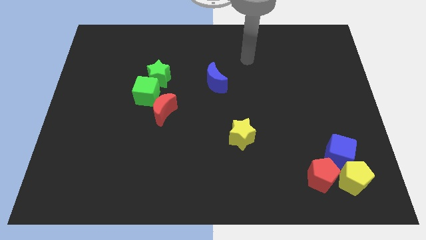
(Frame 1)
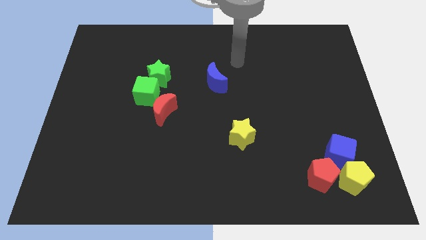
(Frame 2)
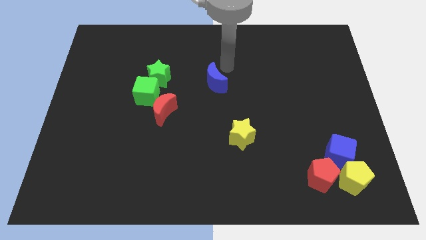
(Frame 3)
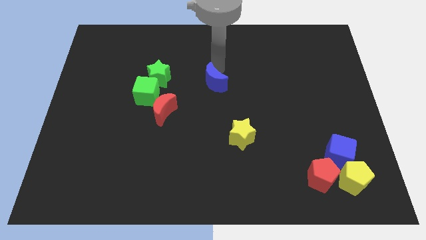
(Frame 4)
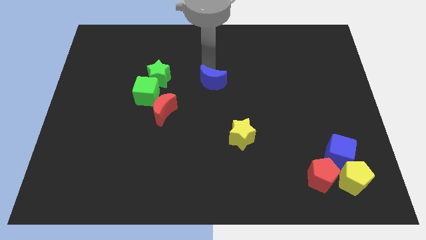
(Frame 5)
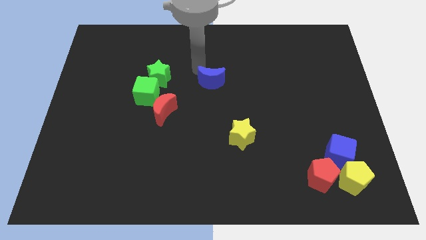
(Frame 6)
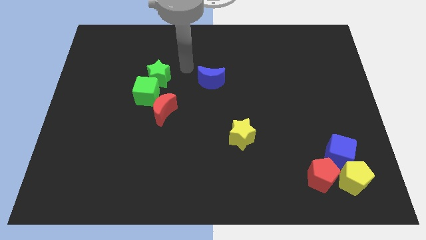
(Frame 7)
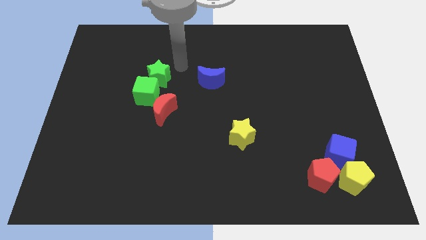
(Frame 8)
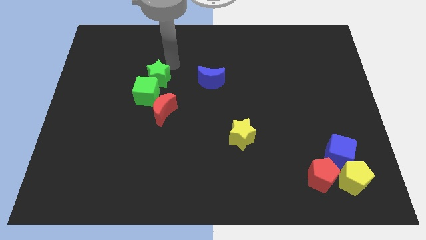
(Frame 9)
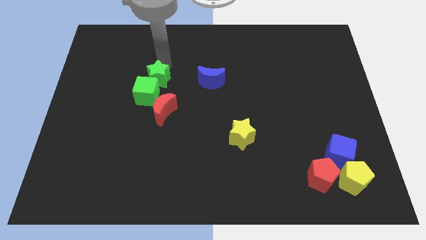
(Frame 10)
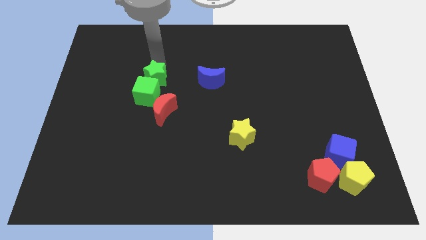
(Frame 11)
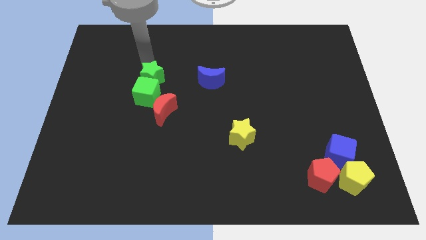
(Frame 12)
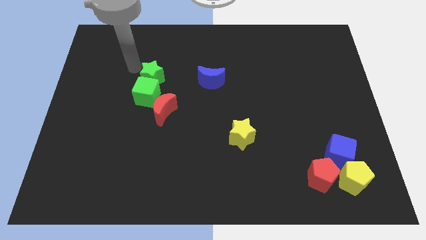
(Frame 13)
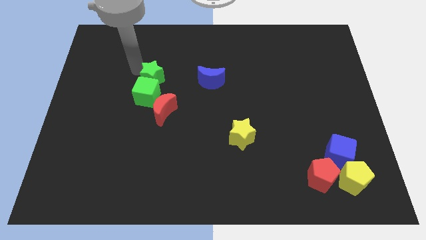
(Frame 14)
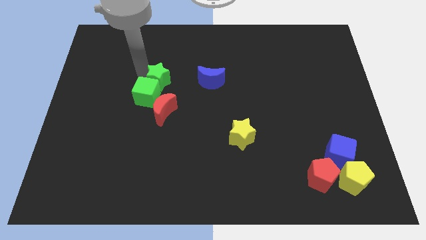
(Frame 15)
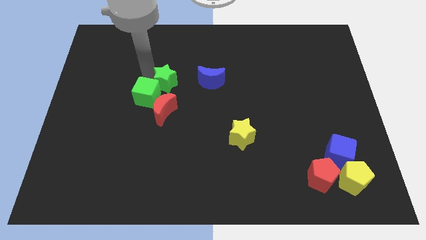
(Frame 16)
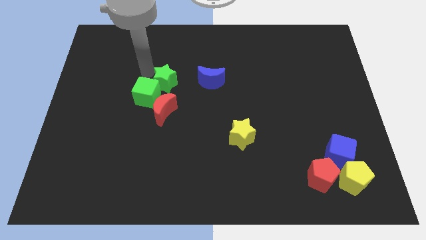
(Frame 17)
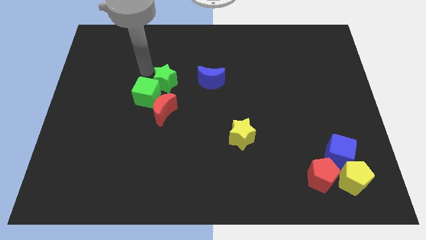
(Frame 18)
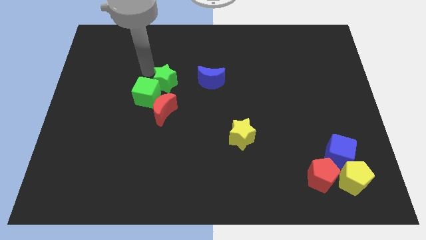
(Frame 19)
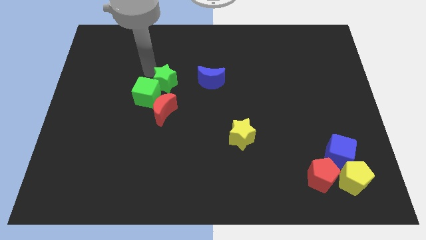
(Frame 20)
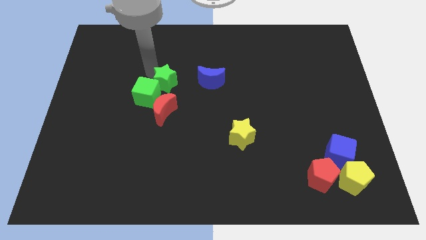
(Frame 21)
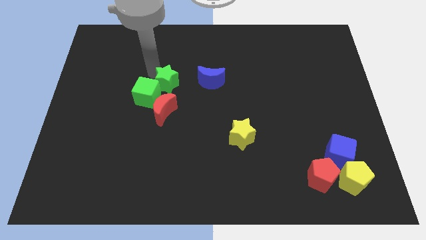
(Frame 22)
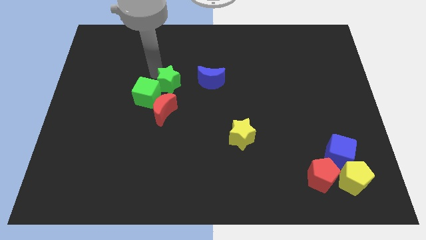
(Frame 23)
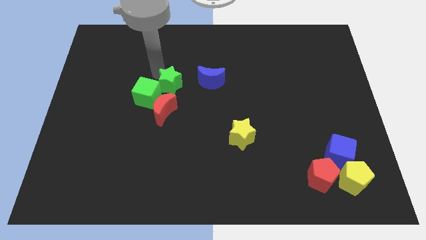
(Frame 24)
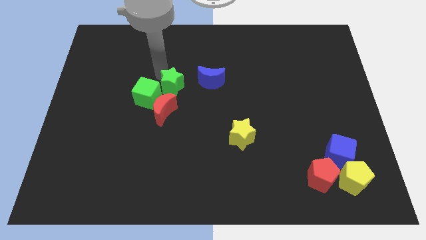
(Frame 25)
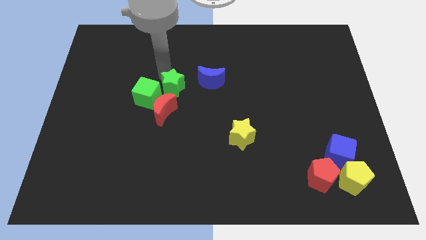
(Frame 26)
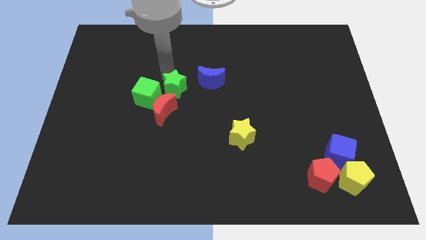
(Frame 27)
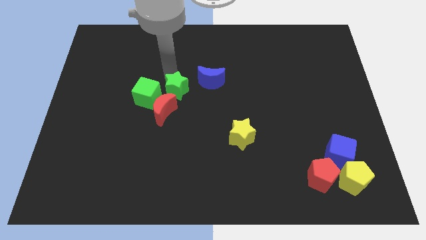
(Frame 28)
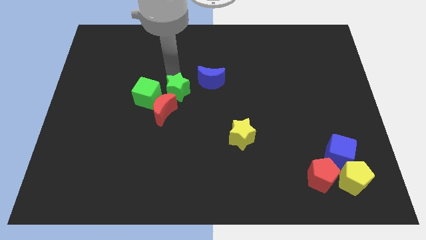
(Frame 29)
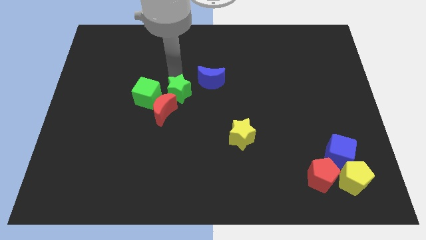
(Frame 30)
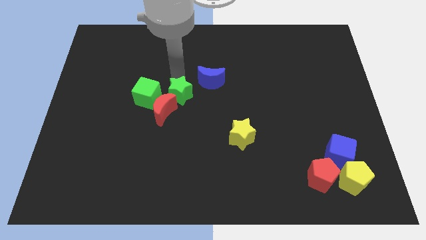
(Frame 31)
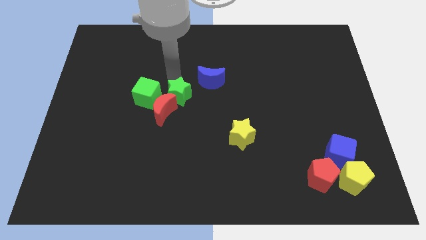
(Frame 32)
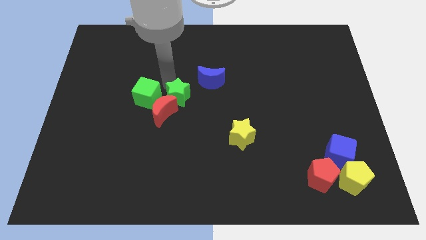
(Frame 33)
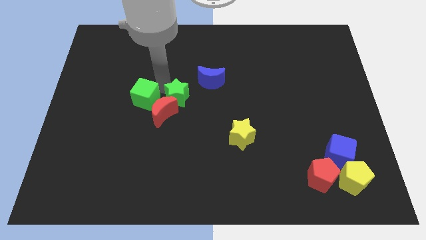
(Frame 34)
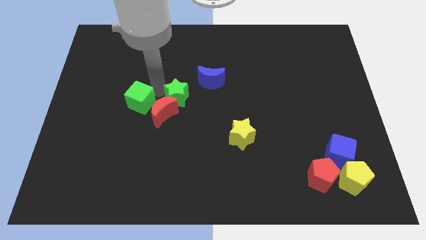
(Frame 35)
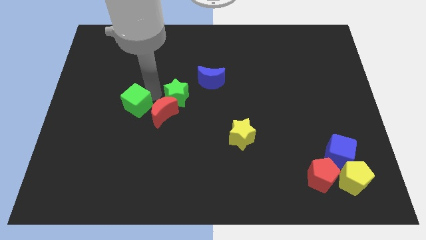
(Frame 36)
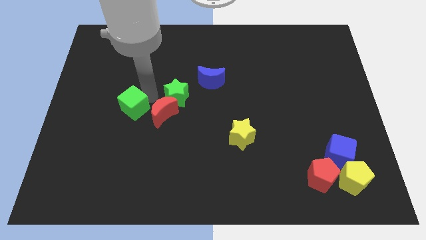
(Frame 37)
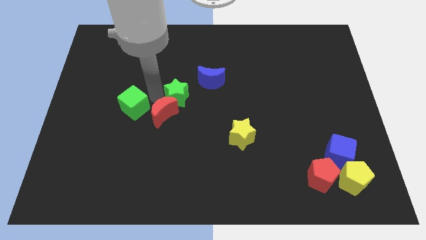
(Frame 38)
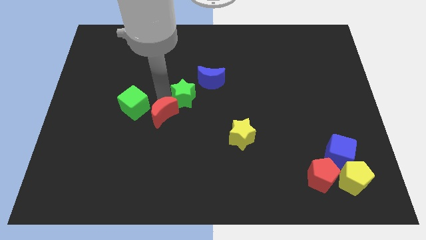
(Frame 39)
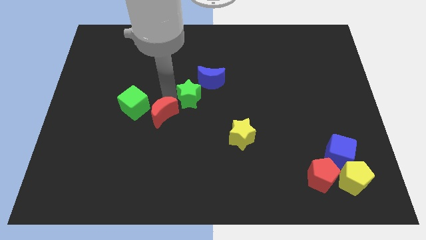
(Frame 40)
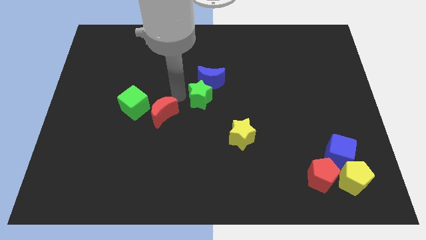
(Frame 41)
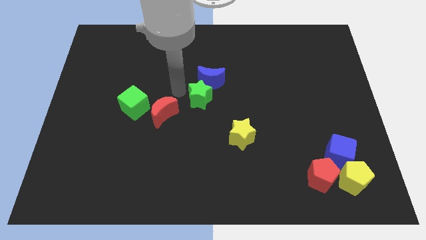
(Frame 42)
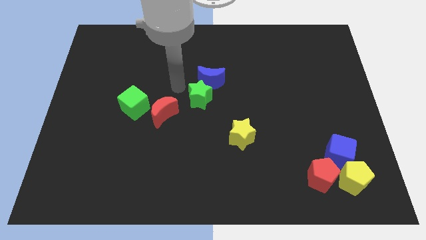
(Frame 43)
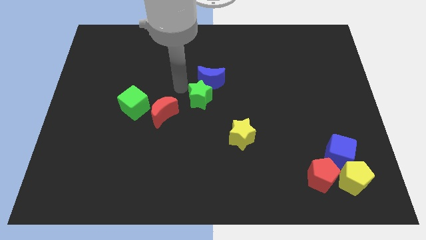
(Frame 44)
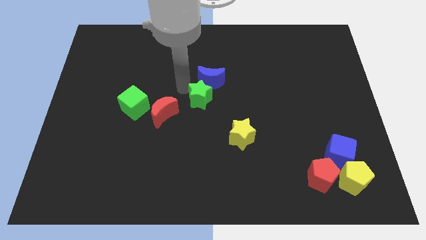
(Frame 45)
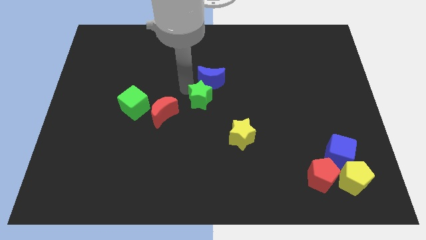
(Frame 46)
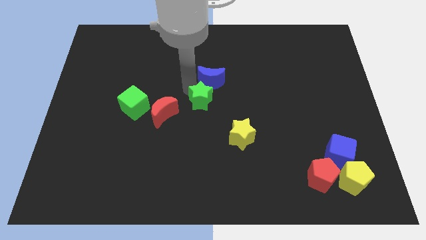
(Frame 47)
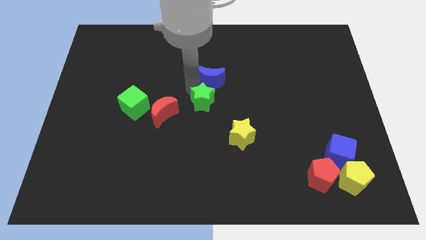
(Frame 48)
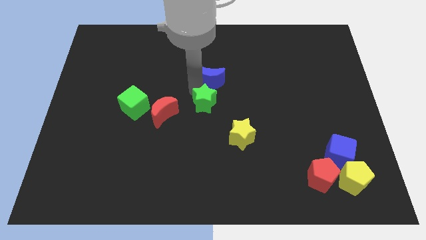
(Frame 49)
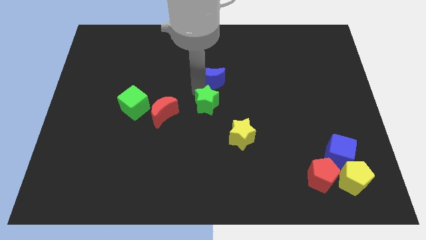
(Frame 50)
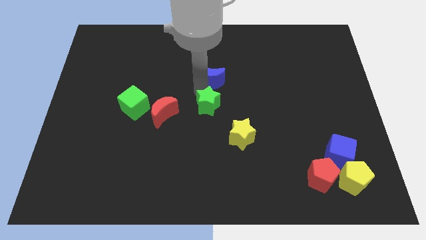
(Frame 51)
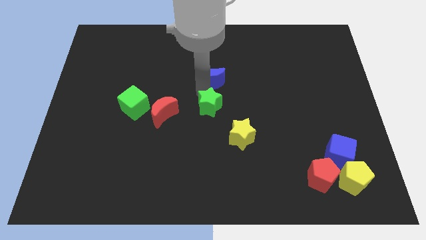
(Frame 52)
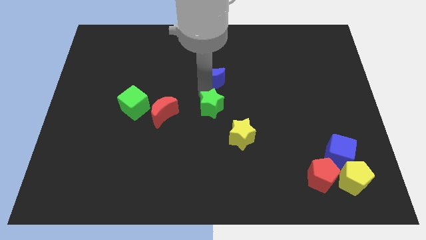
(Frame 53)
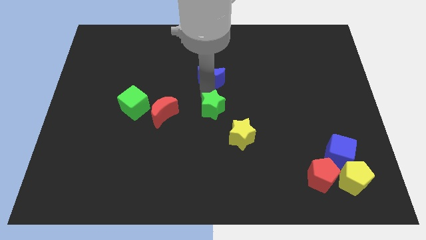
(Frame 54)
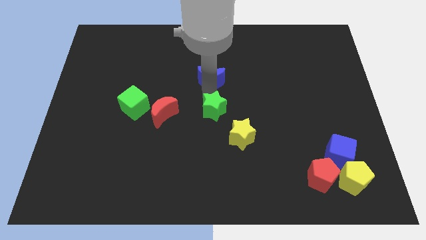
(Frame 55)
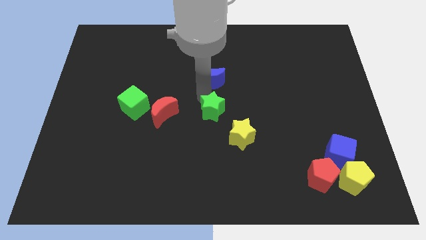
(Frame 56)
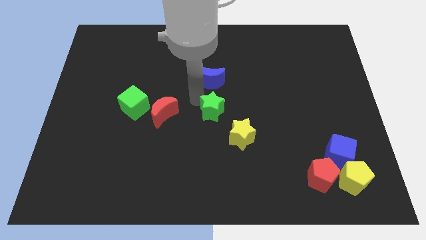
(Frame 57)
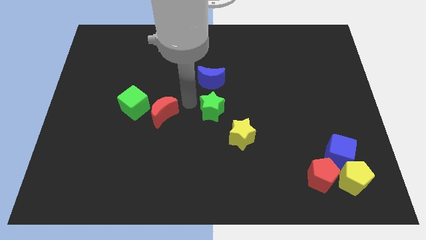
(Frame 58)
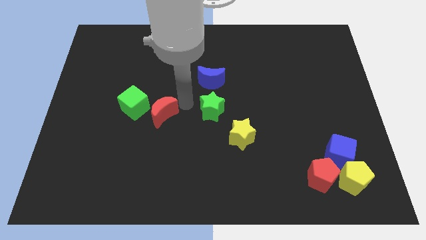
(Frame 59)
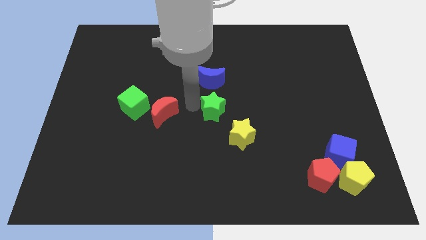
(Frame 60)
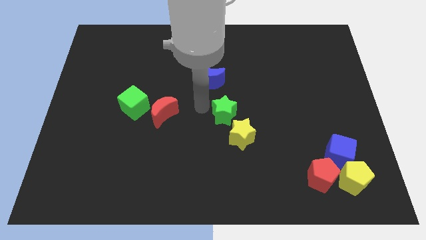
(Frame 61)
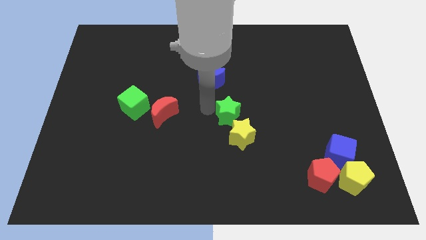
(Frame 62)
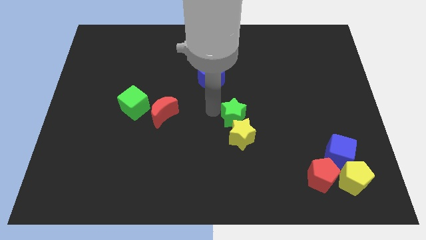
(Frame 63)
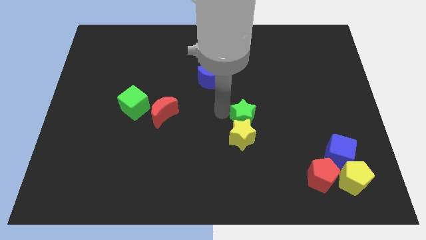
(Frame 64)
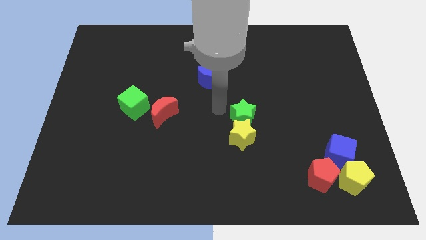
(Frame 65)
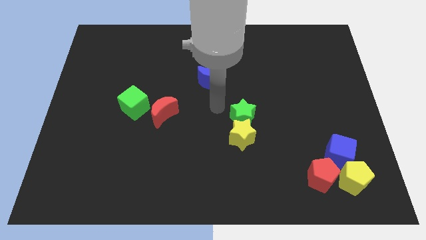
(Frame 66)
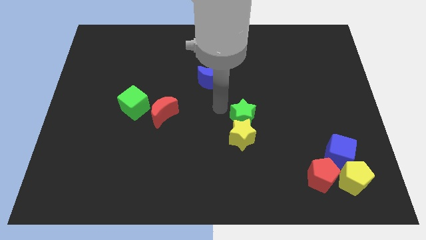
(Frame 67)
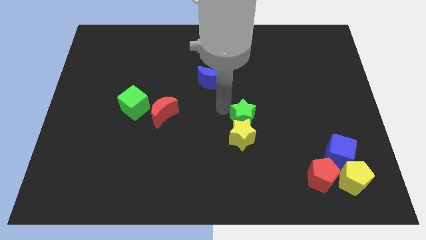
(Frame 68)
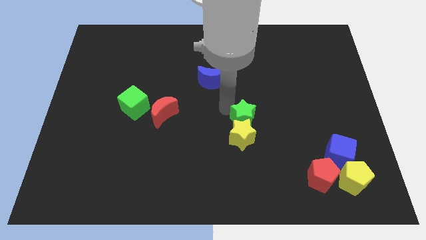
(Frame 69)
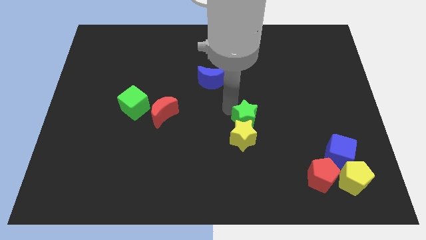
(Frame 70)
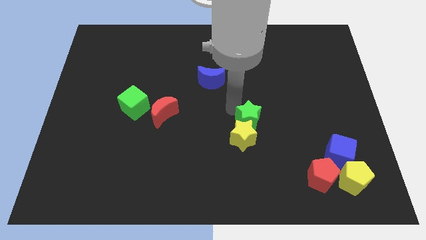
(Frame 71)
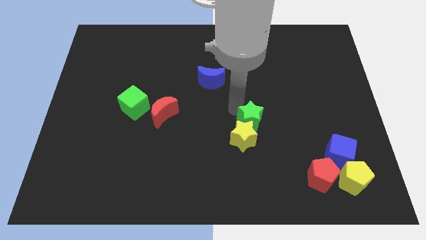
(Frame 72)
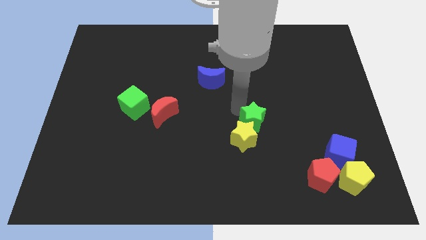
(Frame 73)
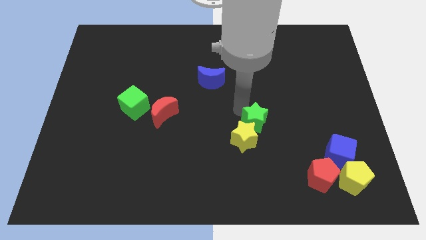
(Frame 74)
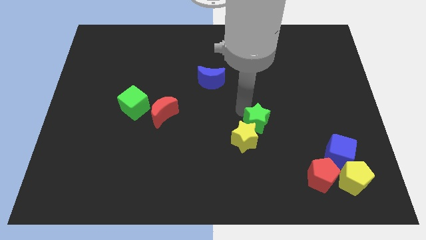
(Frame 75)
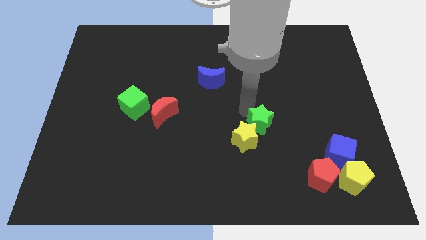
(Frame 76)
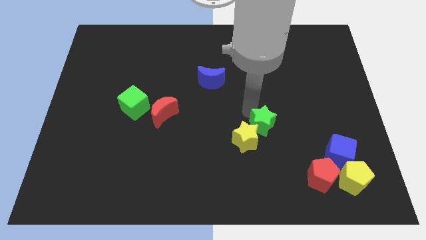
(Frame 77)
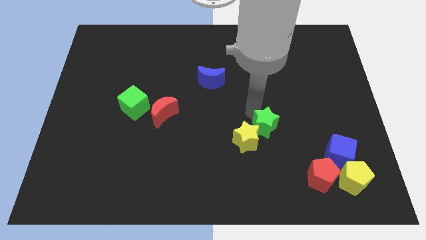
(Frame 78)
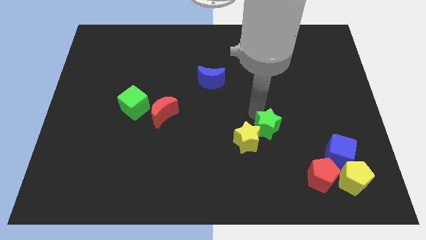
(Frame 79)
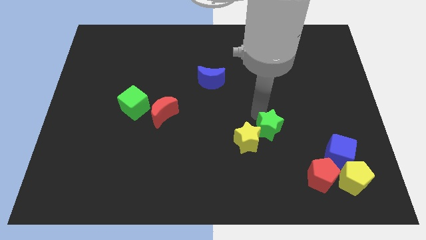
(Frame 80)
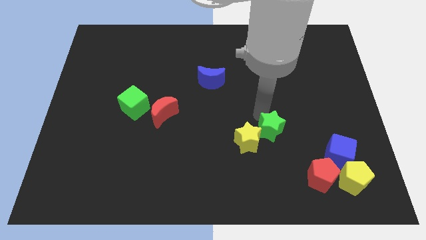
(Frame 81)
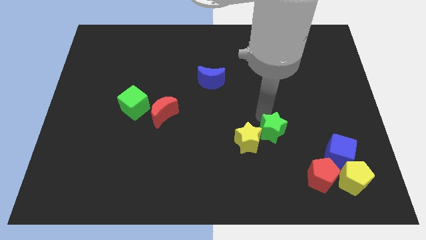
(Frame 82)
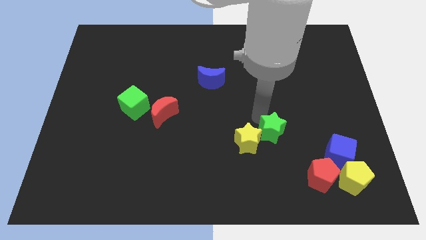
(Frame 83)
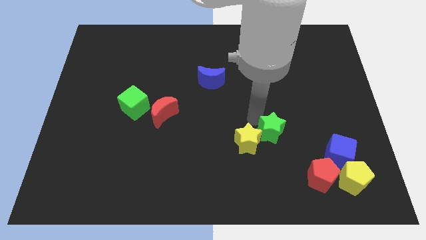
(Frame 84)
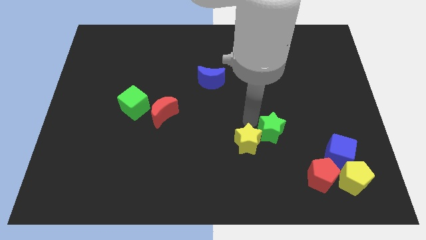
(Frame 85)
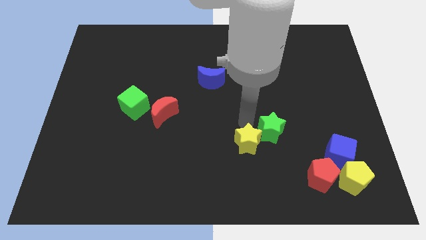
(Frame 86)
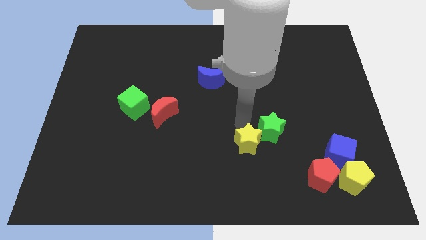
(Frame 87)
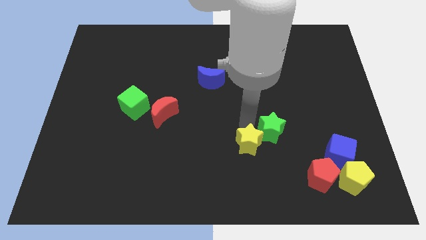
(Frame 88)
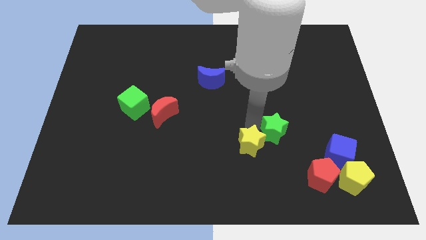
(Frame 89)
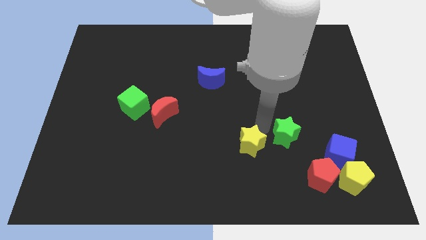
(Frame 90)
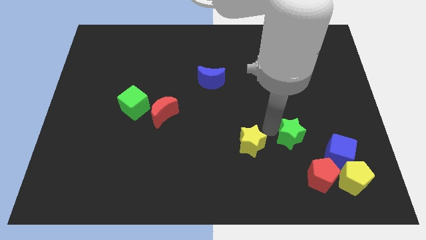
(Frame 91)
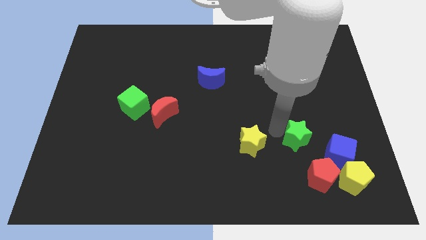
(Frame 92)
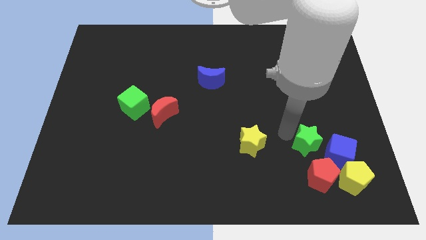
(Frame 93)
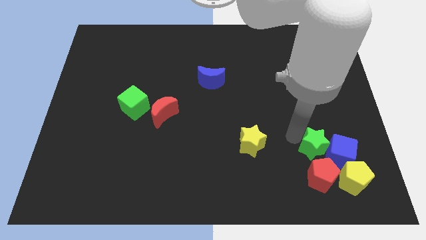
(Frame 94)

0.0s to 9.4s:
push the green star next to the blue cube
